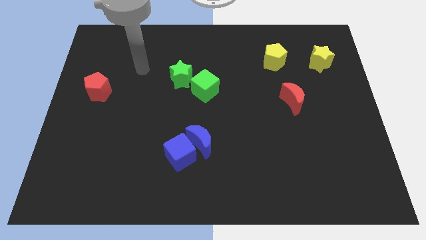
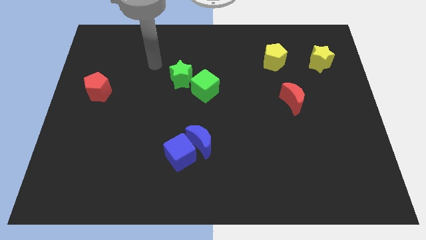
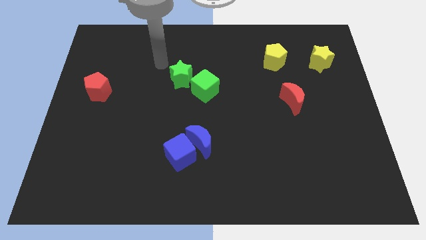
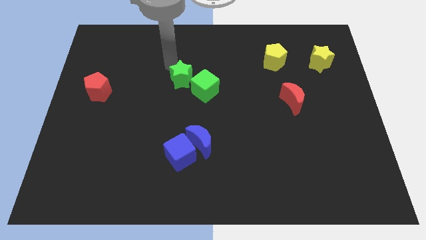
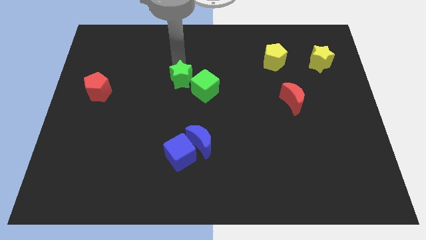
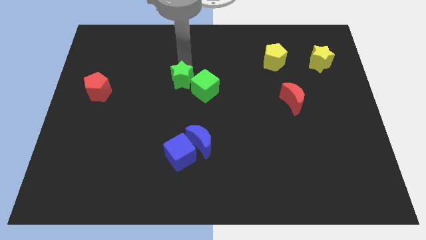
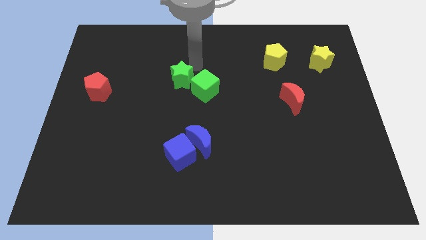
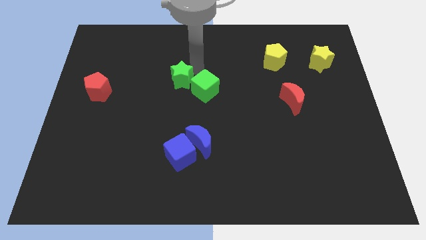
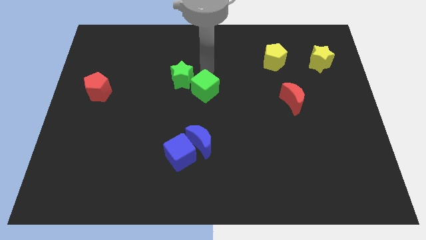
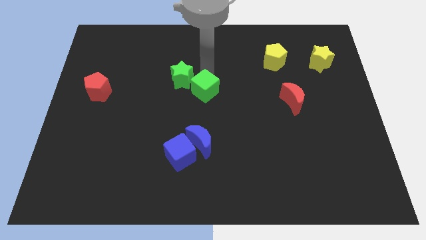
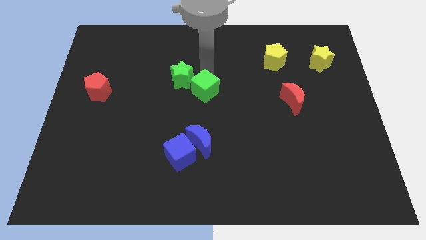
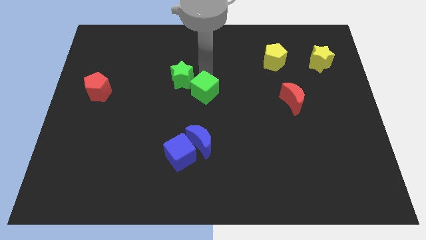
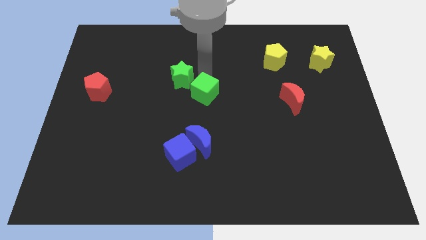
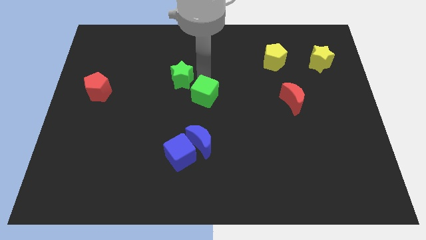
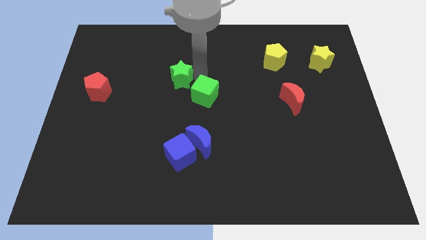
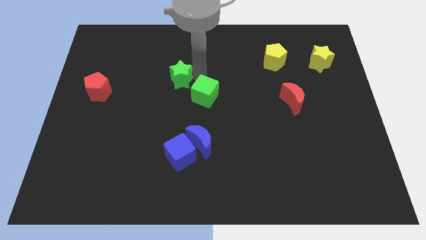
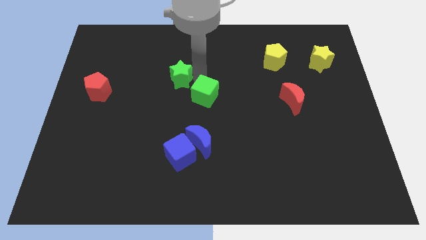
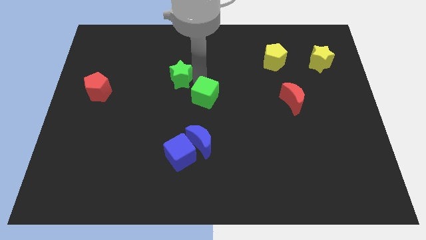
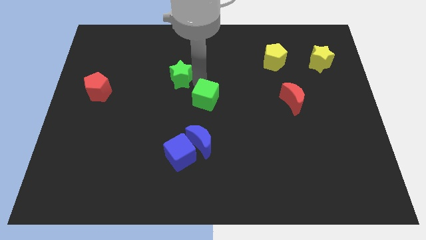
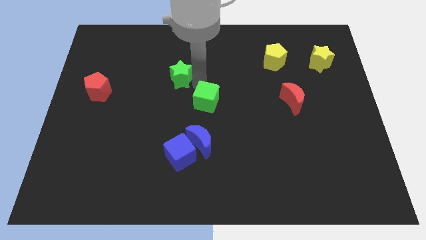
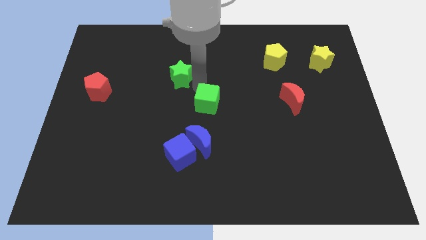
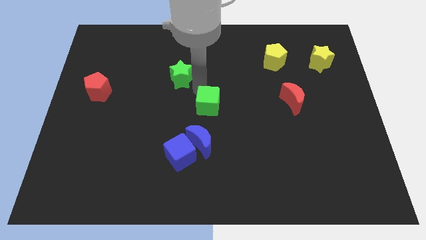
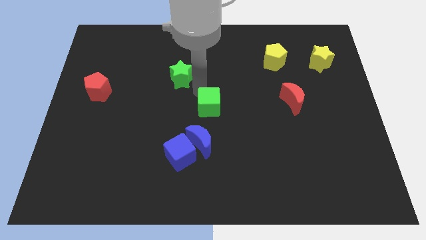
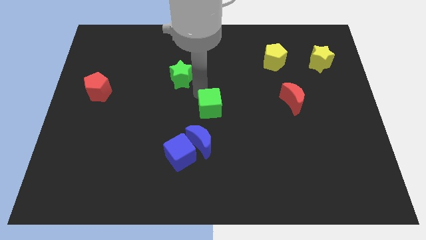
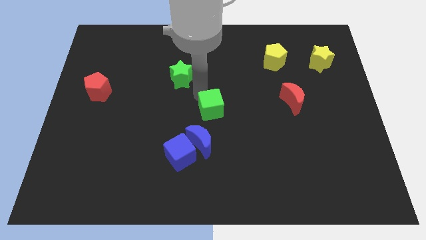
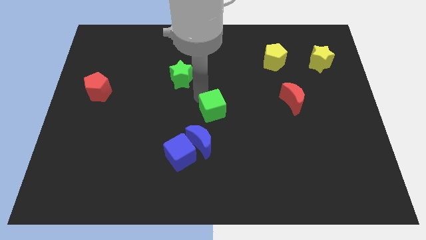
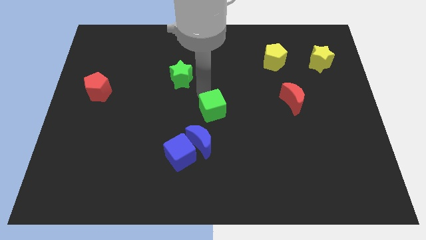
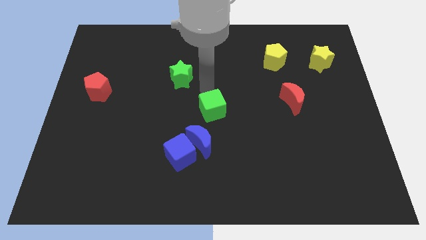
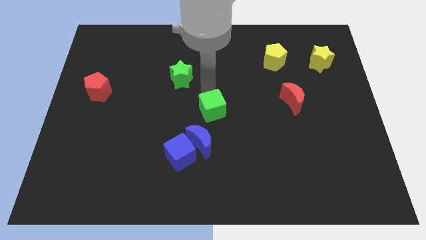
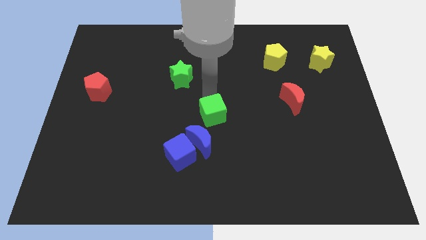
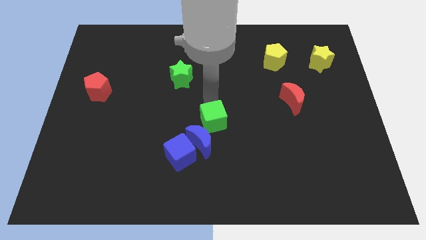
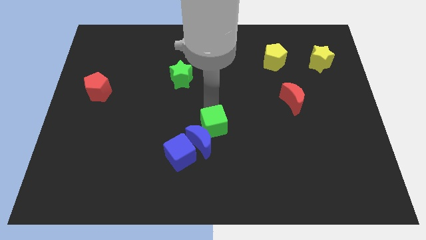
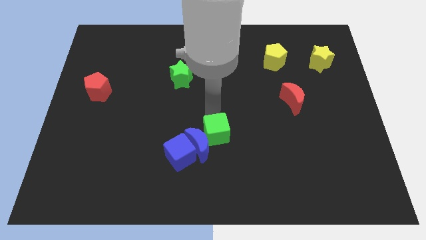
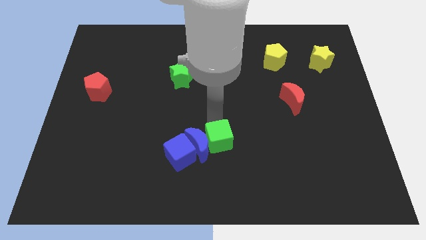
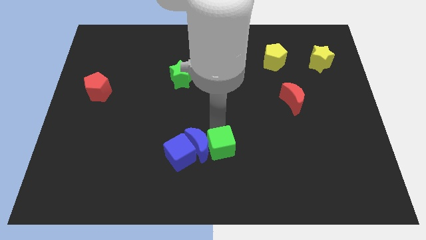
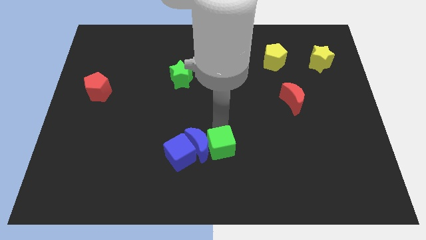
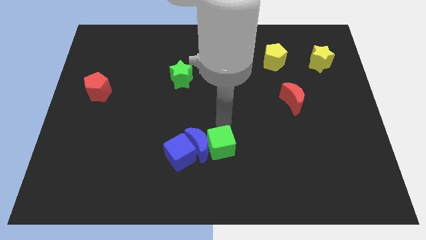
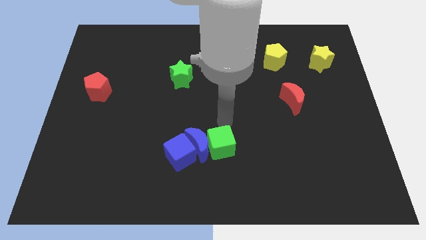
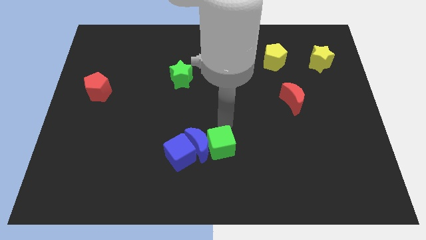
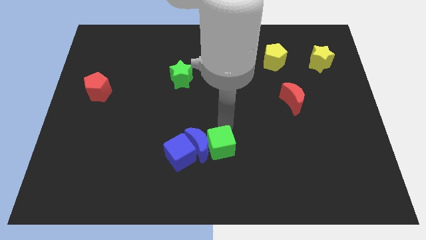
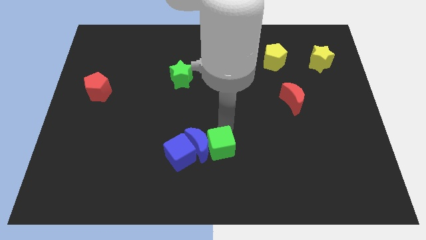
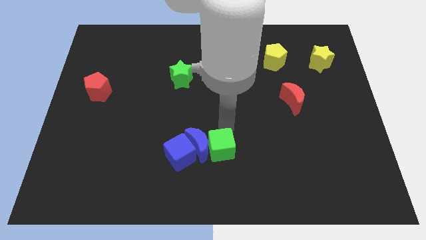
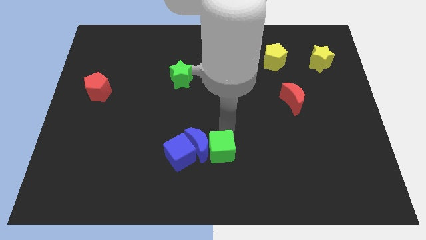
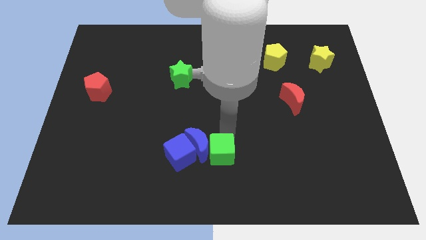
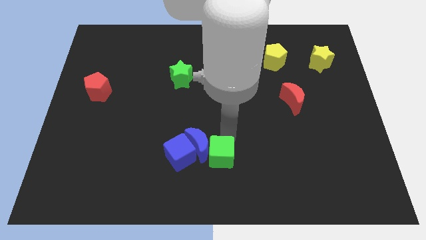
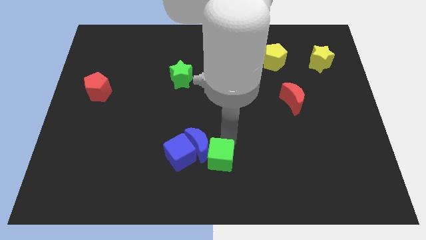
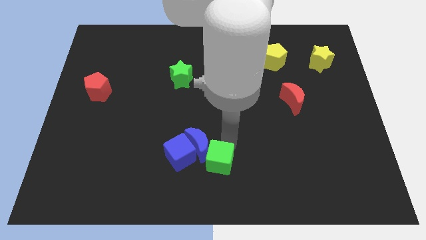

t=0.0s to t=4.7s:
put the green cube to the bottom right of the blue cube

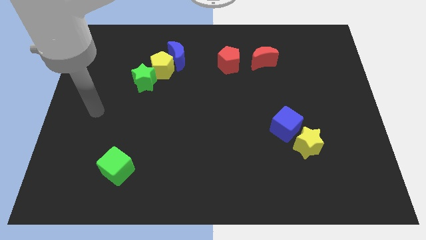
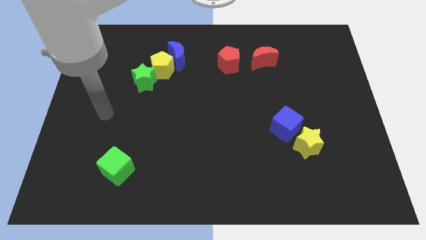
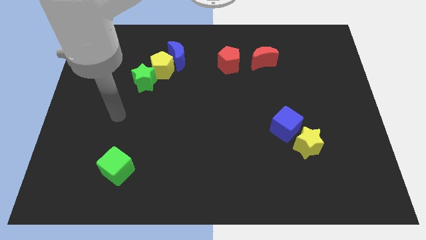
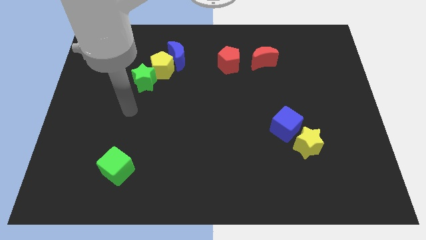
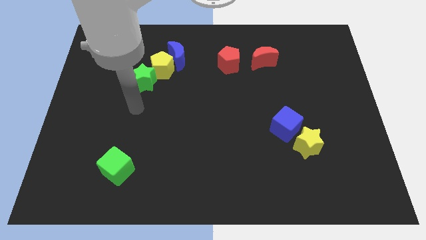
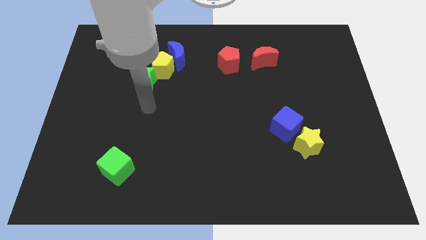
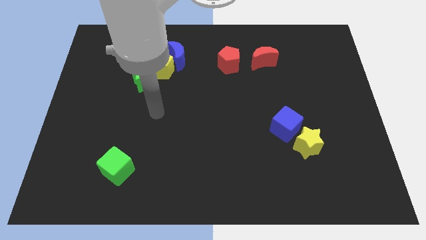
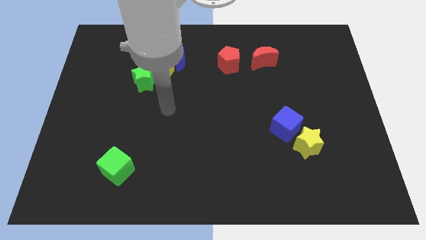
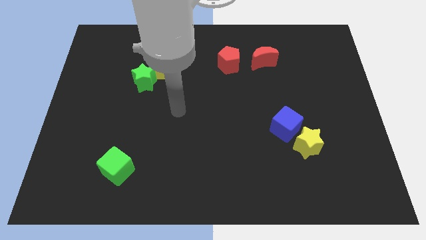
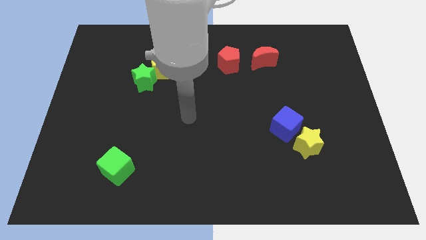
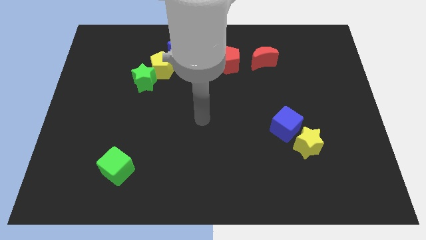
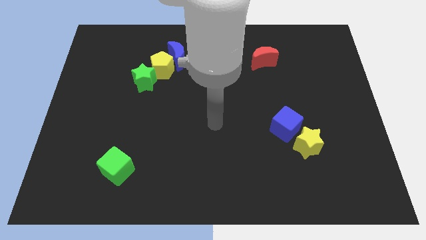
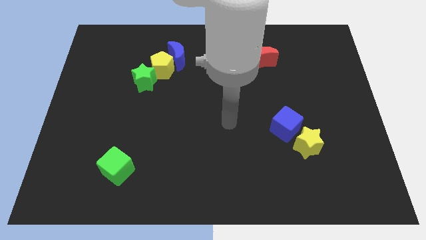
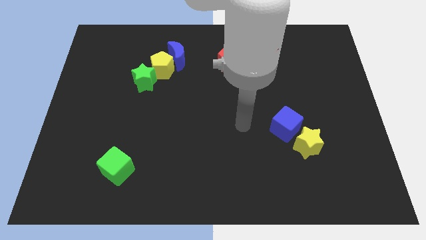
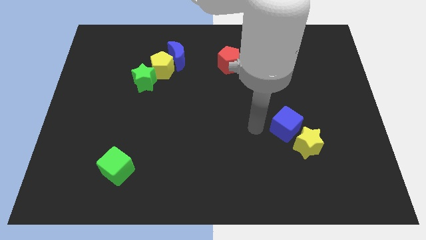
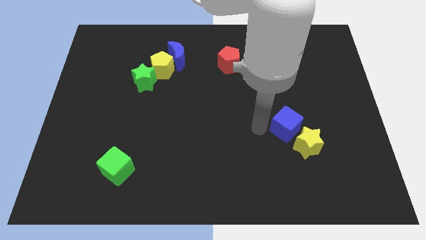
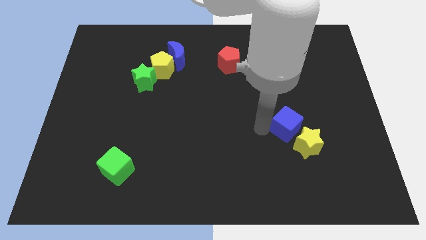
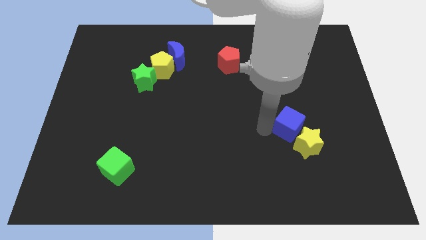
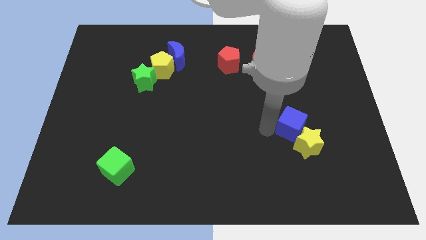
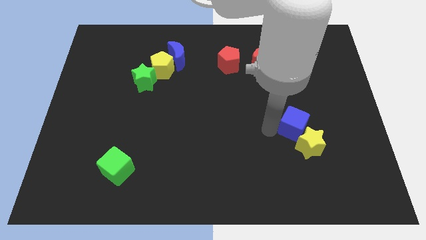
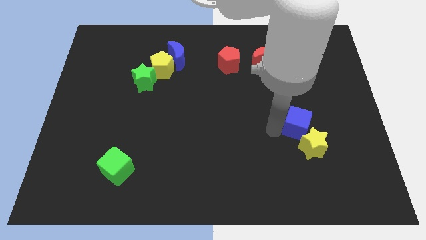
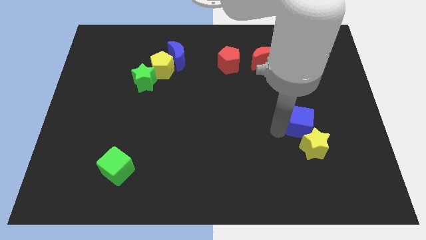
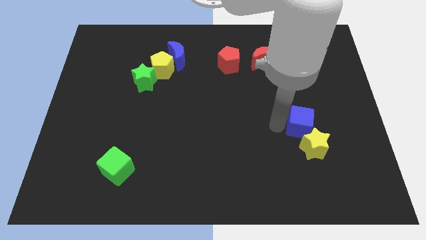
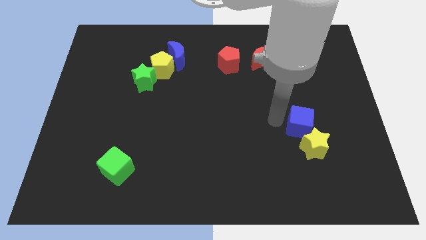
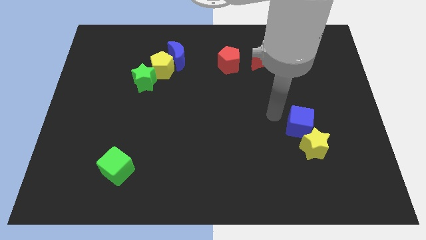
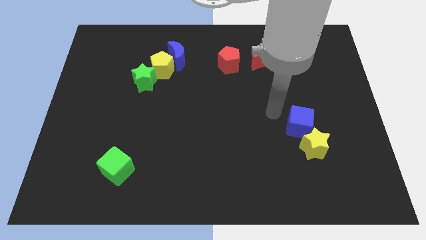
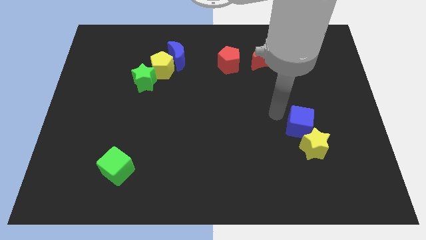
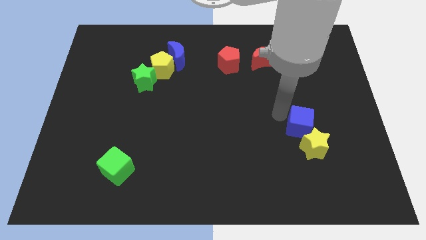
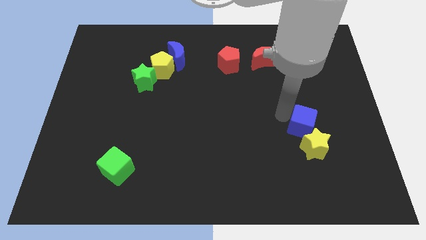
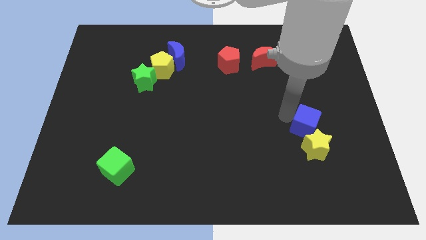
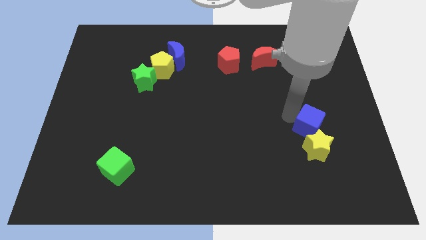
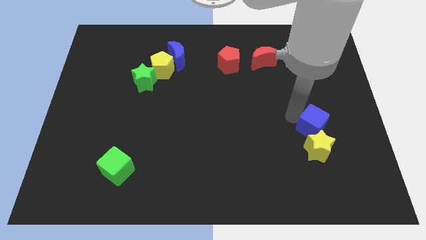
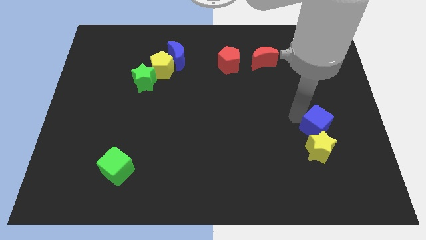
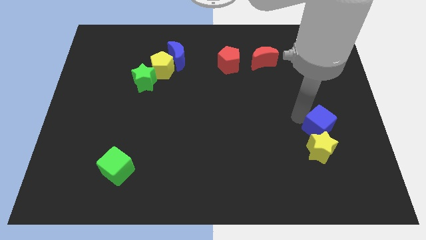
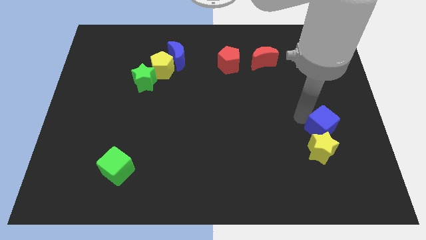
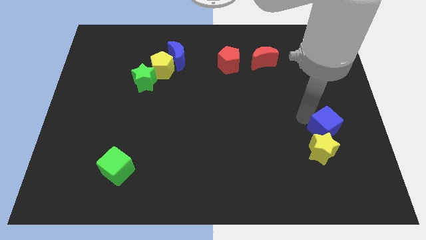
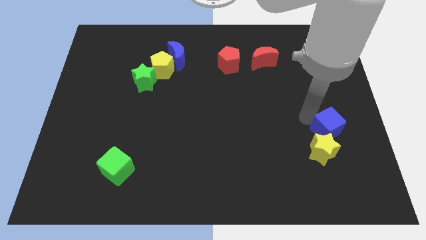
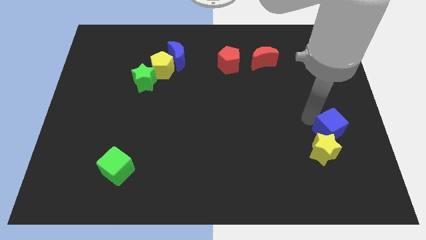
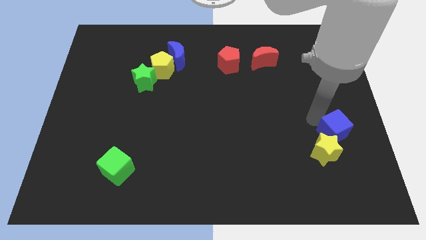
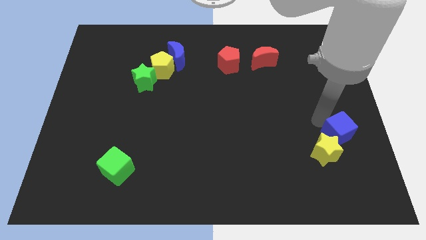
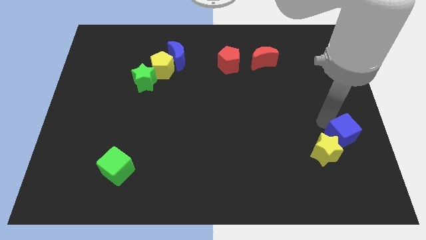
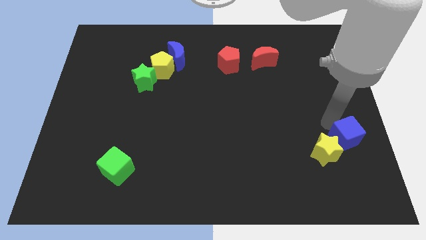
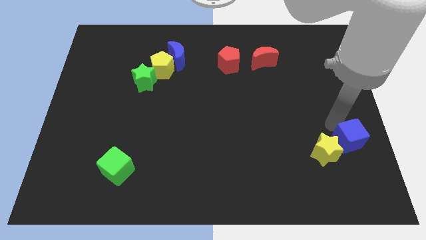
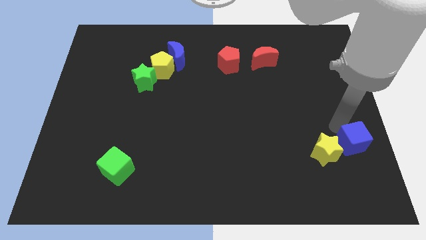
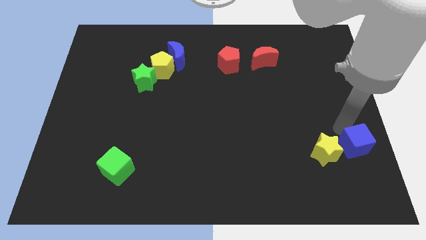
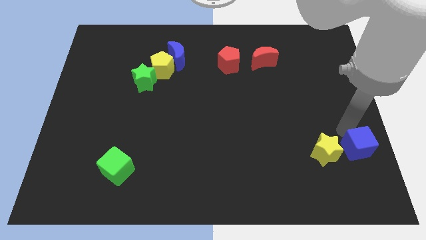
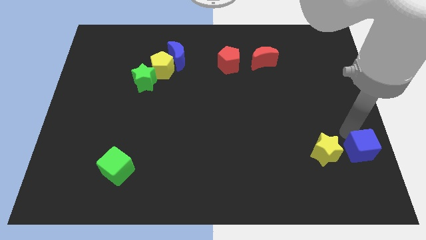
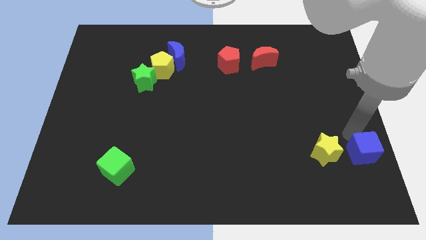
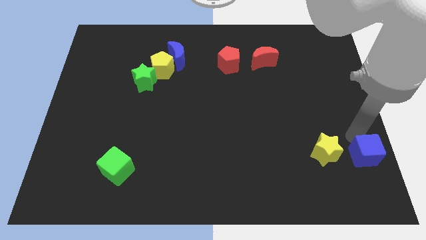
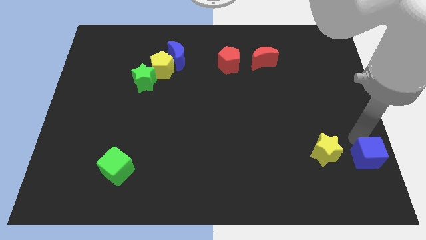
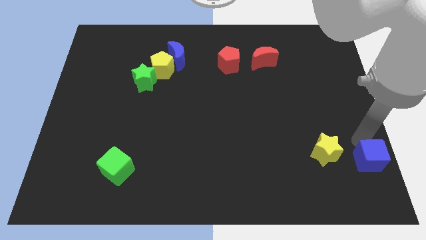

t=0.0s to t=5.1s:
put the blue cube to the bottom right side of the yellow star
